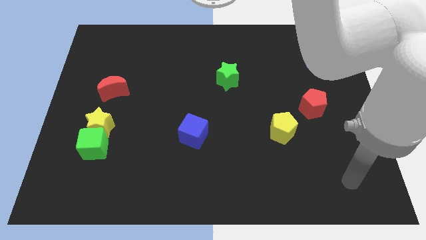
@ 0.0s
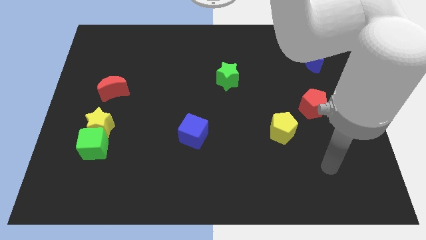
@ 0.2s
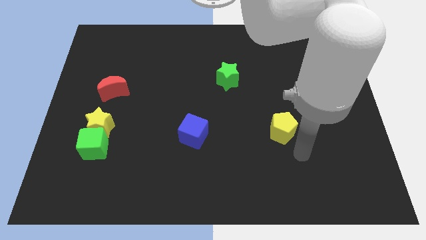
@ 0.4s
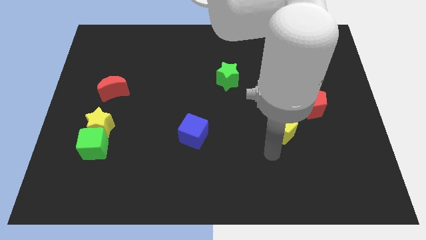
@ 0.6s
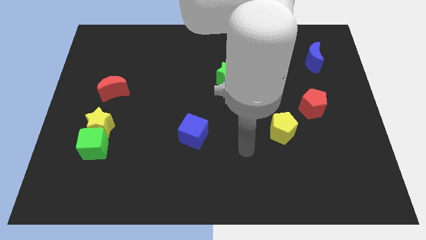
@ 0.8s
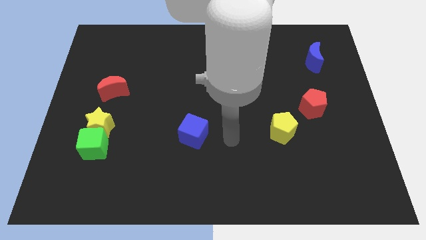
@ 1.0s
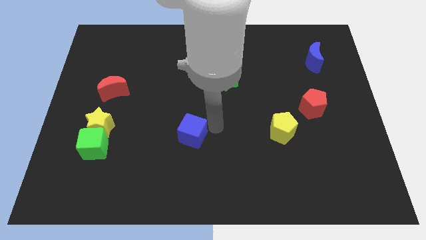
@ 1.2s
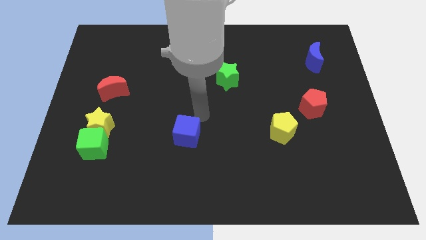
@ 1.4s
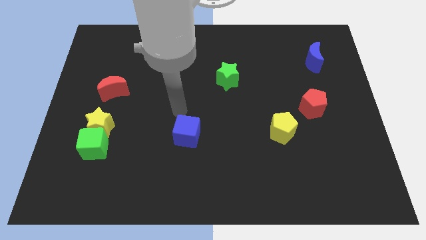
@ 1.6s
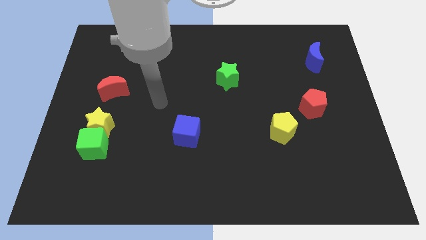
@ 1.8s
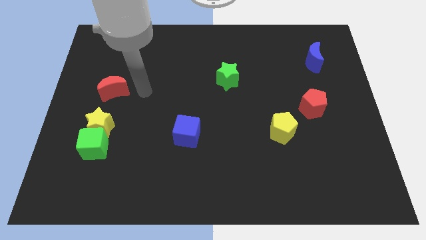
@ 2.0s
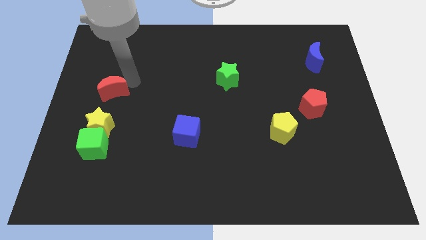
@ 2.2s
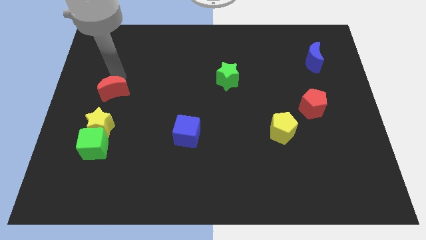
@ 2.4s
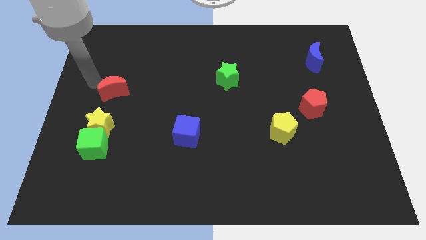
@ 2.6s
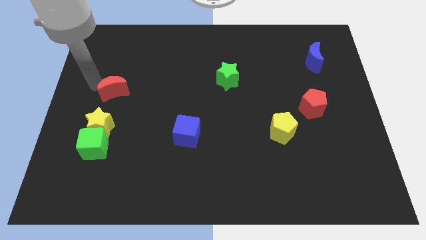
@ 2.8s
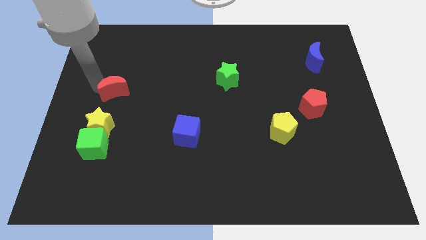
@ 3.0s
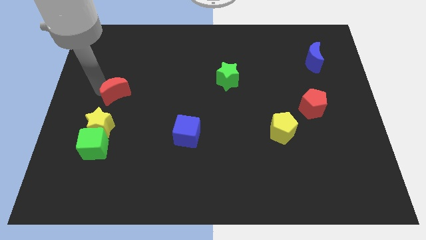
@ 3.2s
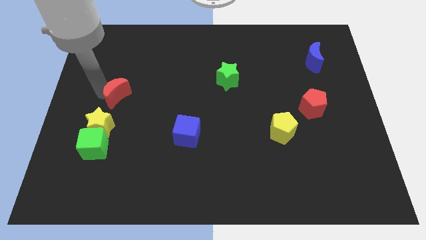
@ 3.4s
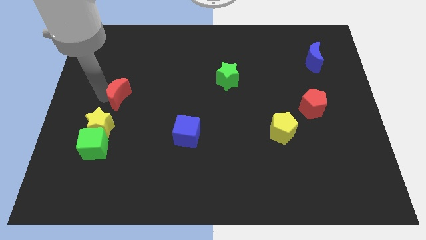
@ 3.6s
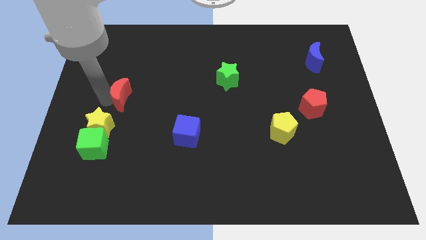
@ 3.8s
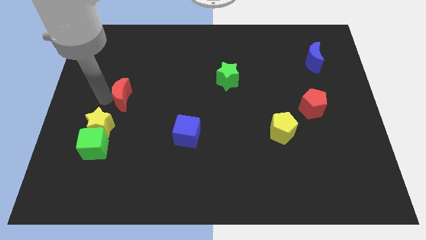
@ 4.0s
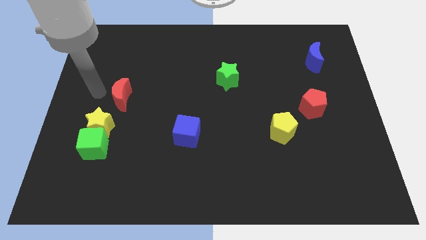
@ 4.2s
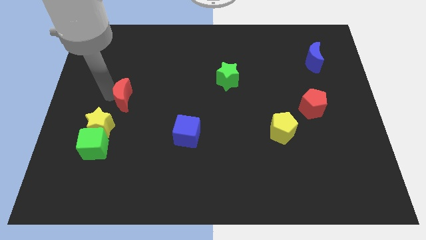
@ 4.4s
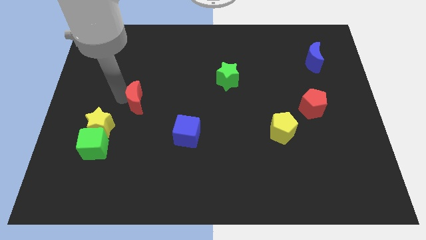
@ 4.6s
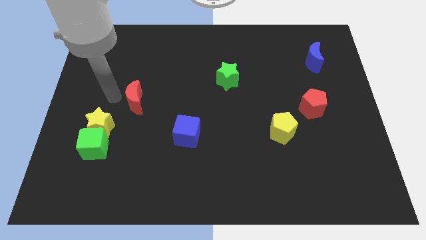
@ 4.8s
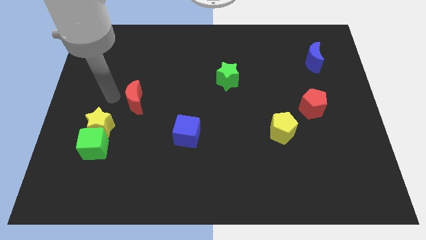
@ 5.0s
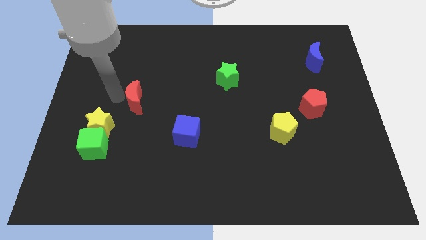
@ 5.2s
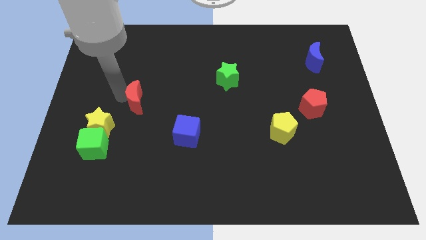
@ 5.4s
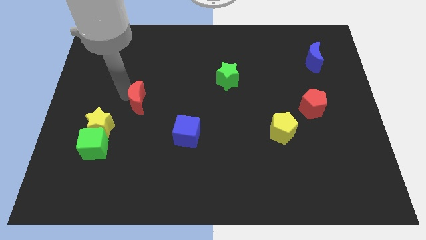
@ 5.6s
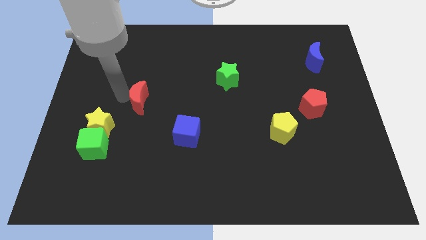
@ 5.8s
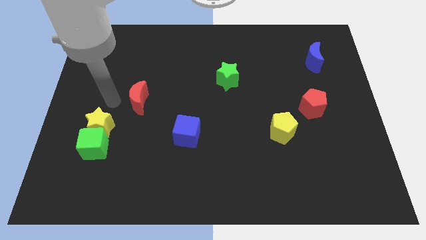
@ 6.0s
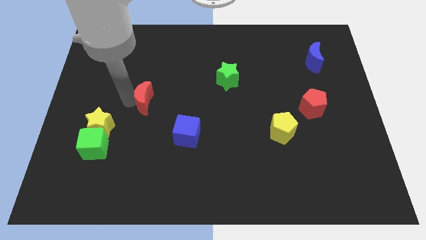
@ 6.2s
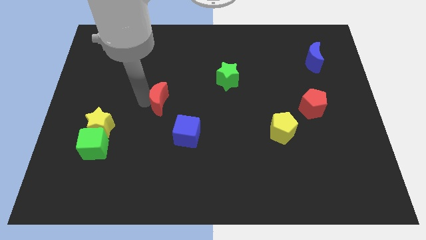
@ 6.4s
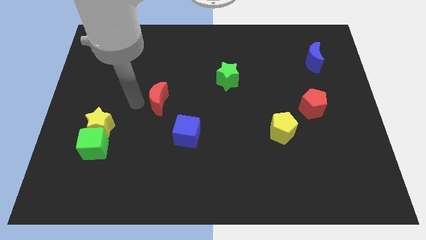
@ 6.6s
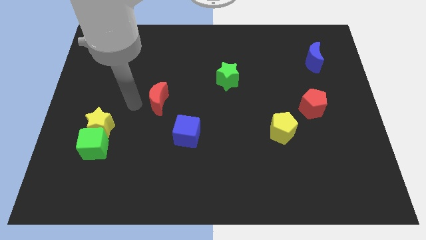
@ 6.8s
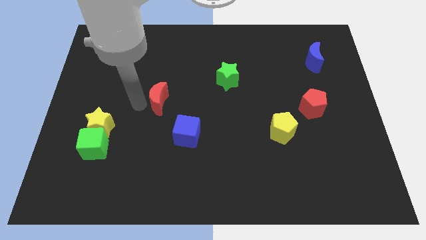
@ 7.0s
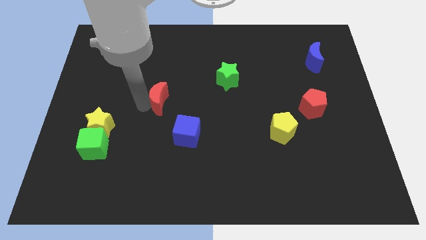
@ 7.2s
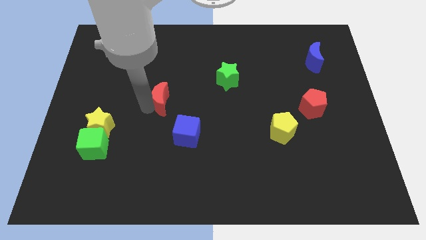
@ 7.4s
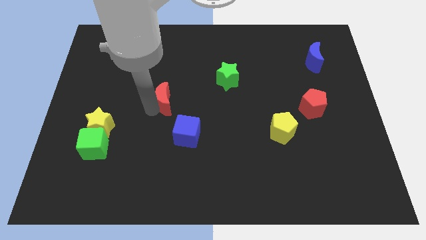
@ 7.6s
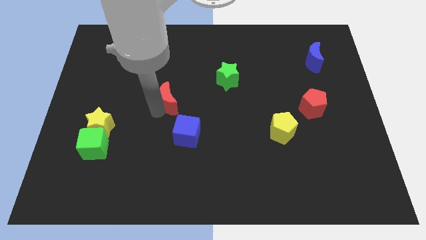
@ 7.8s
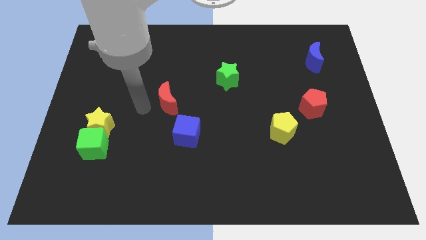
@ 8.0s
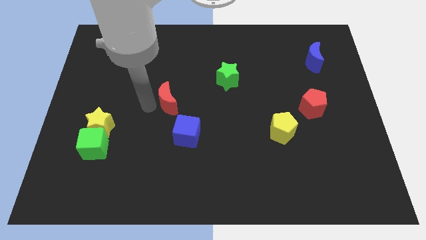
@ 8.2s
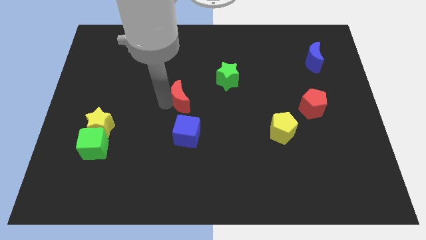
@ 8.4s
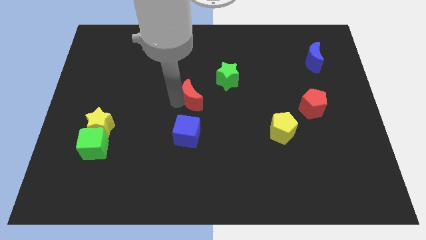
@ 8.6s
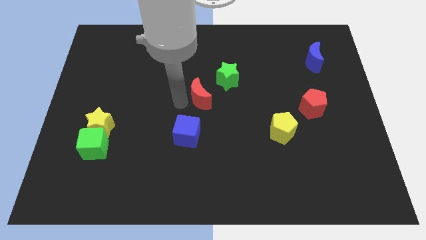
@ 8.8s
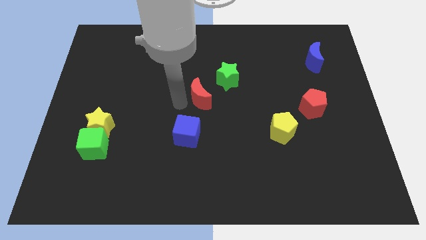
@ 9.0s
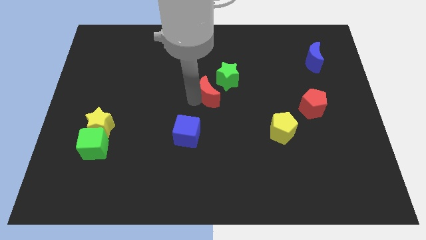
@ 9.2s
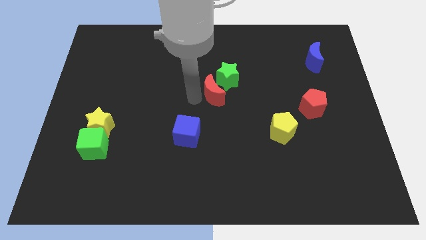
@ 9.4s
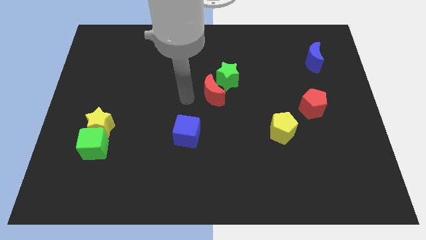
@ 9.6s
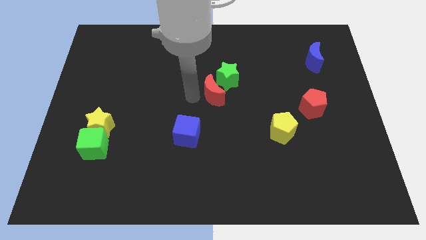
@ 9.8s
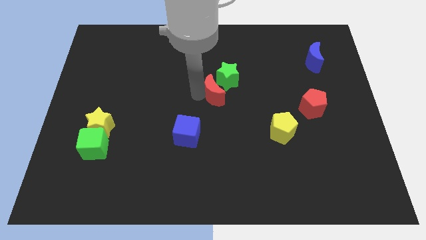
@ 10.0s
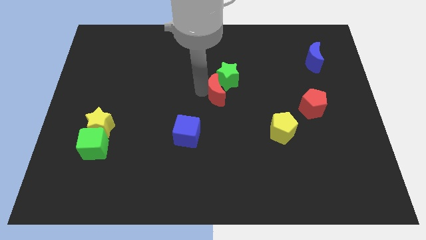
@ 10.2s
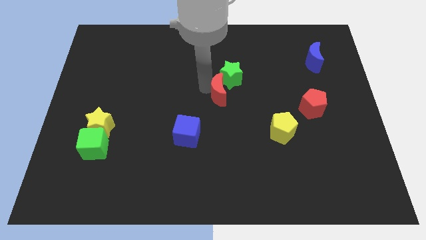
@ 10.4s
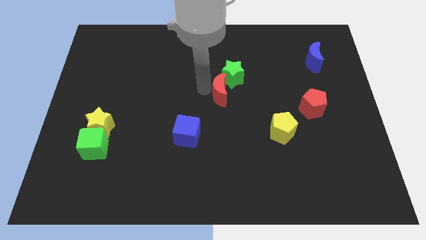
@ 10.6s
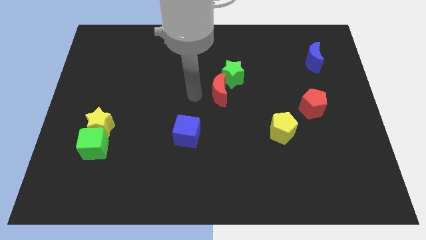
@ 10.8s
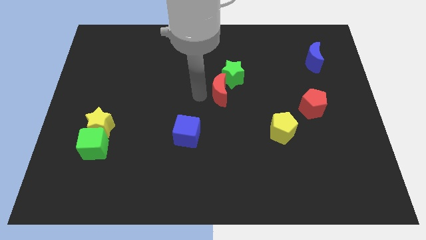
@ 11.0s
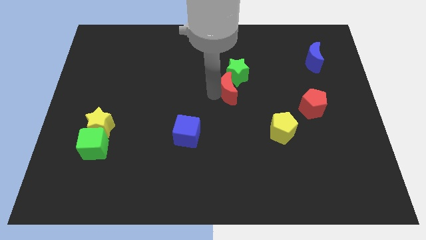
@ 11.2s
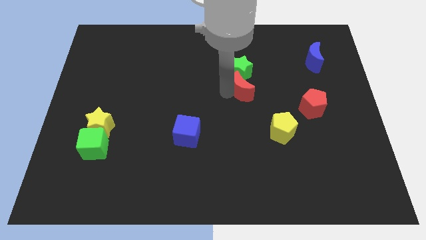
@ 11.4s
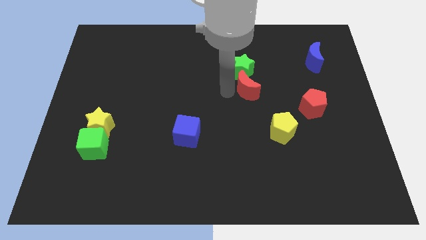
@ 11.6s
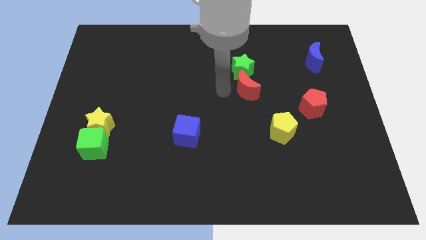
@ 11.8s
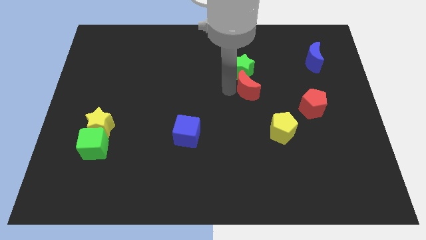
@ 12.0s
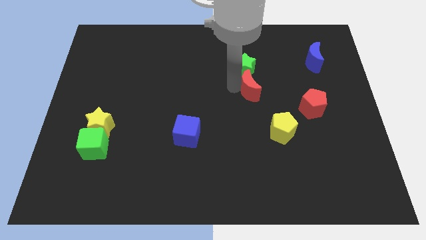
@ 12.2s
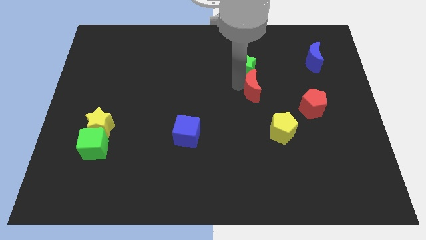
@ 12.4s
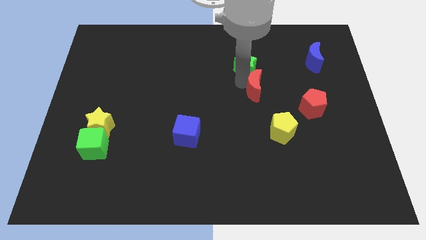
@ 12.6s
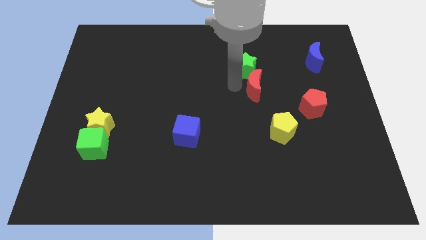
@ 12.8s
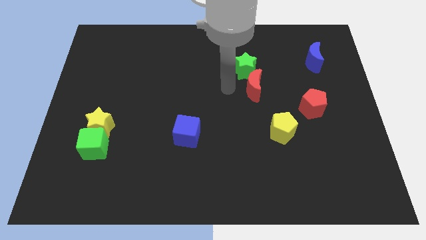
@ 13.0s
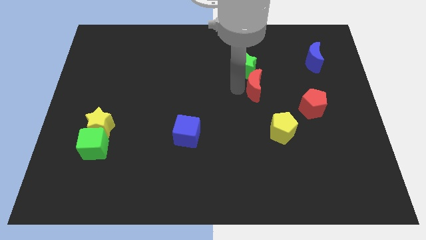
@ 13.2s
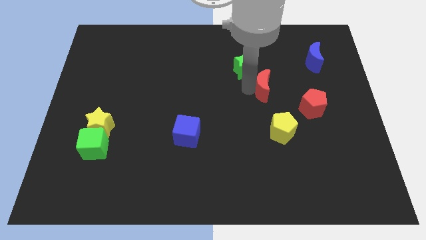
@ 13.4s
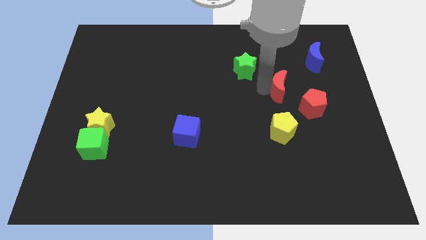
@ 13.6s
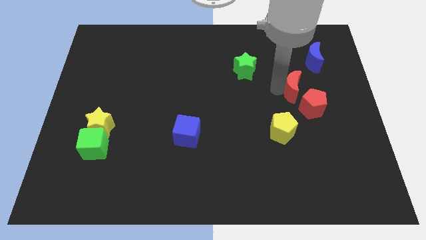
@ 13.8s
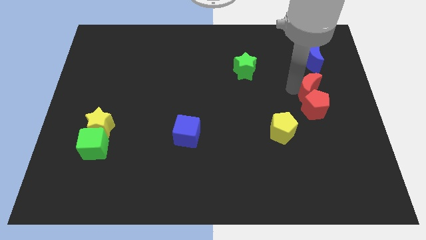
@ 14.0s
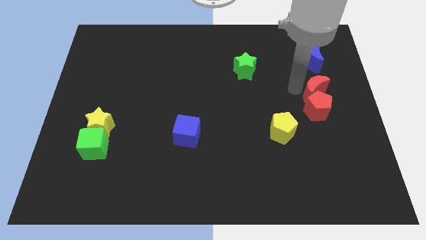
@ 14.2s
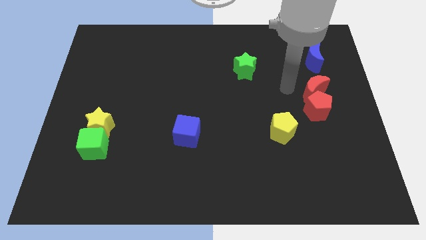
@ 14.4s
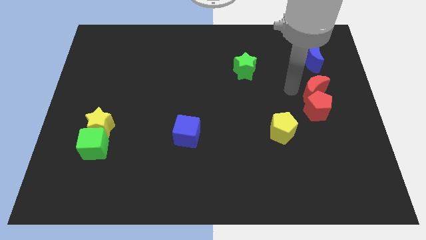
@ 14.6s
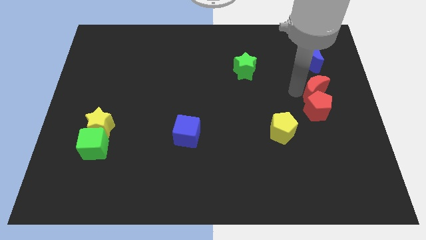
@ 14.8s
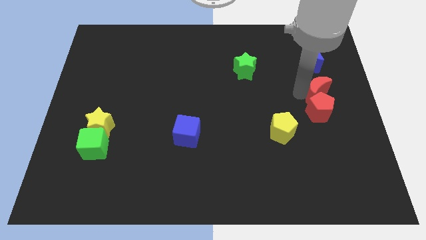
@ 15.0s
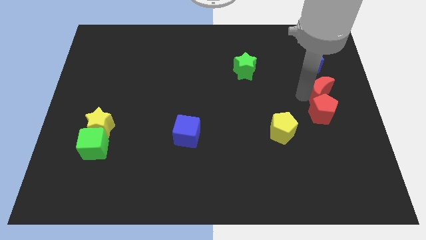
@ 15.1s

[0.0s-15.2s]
move the red moon to the right side
